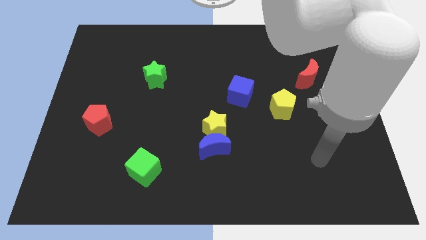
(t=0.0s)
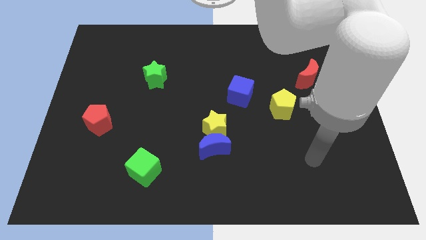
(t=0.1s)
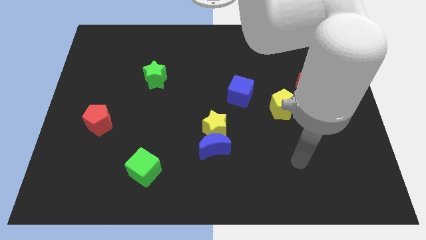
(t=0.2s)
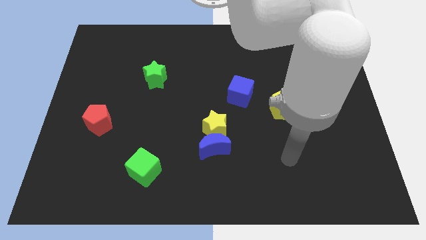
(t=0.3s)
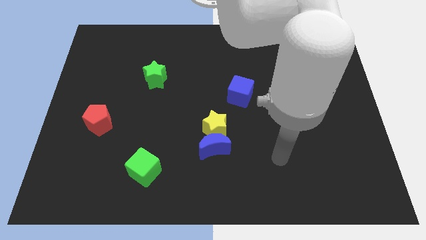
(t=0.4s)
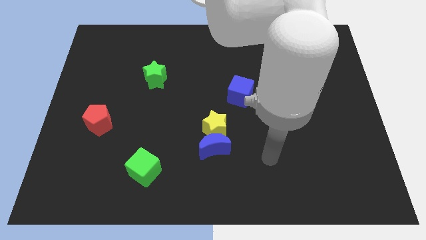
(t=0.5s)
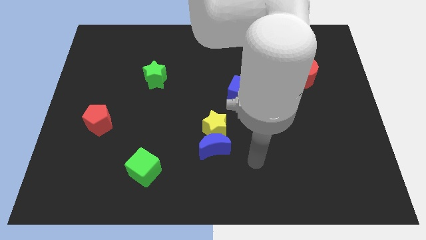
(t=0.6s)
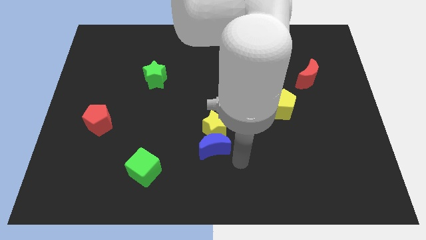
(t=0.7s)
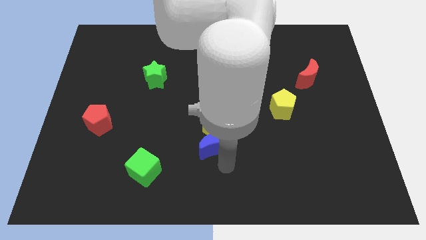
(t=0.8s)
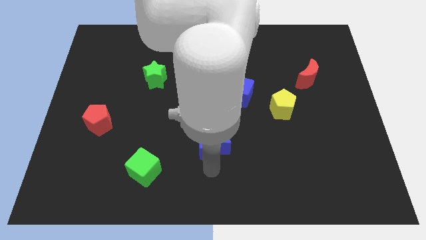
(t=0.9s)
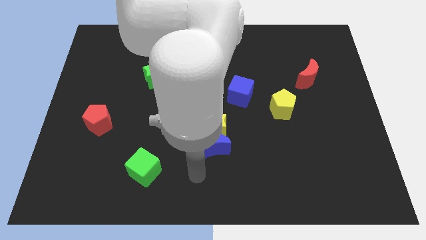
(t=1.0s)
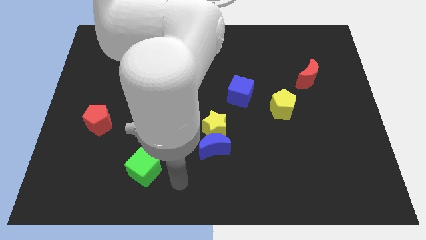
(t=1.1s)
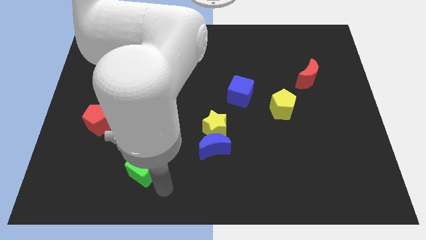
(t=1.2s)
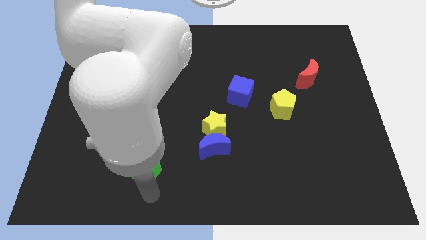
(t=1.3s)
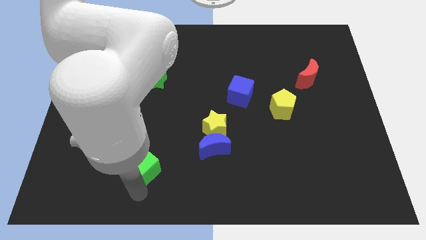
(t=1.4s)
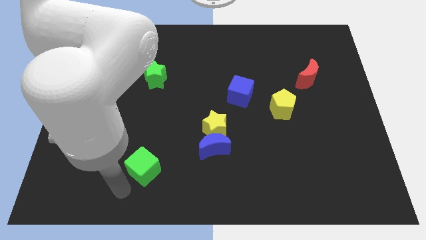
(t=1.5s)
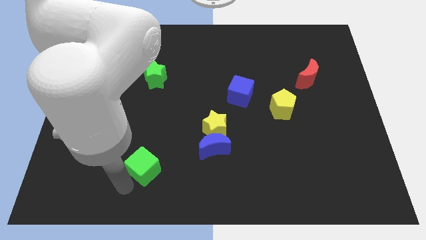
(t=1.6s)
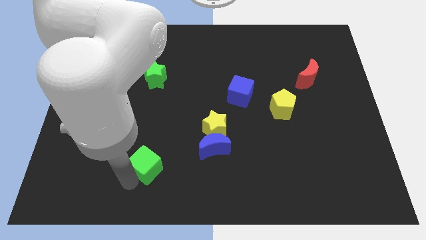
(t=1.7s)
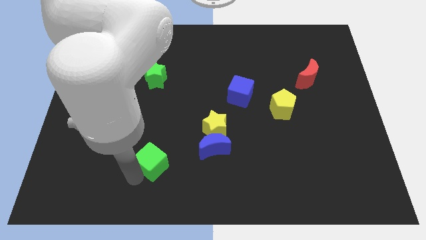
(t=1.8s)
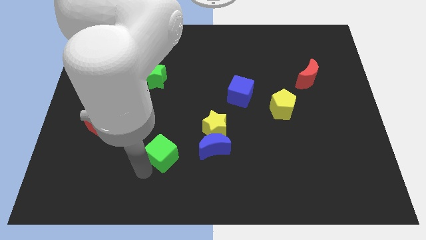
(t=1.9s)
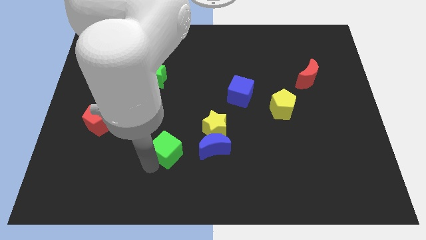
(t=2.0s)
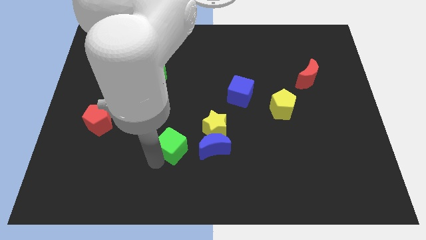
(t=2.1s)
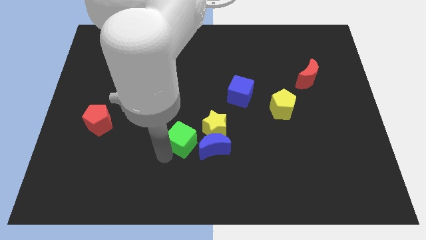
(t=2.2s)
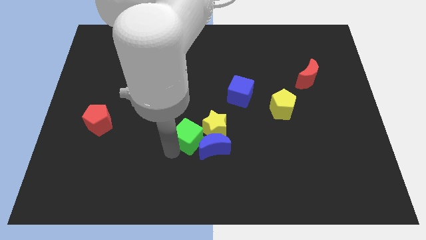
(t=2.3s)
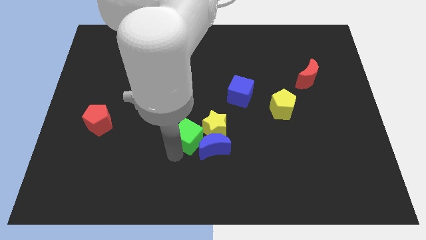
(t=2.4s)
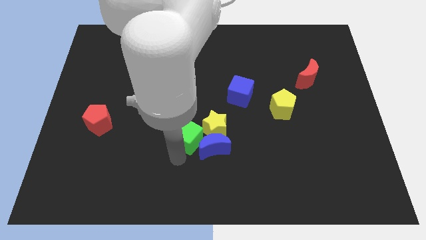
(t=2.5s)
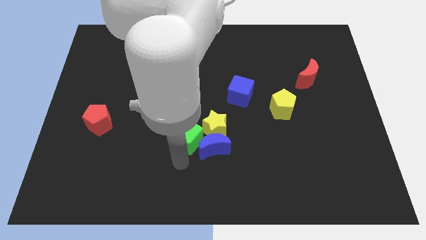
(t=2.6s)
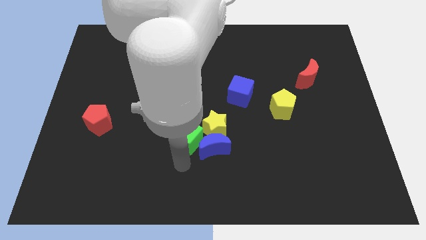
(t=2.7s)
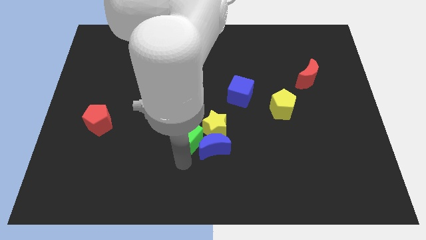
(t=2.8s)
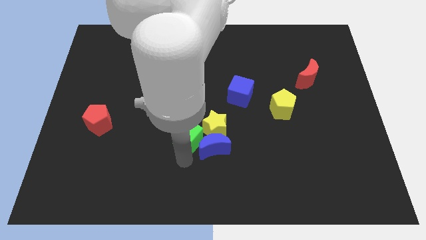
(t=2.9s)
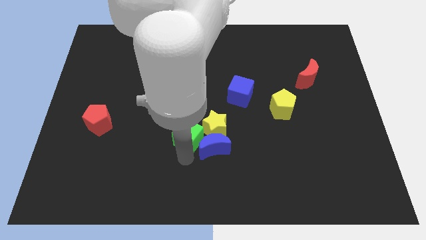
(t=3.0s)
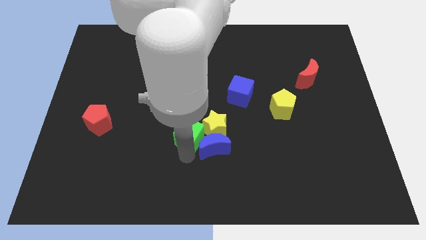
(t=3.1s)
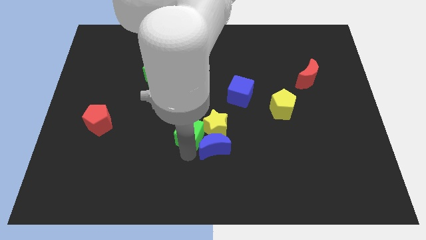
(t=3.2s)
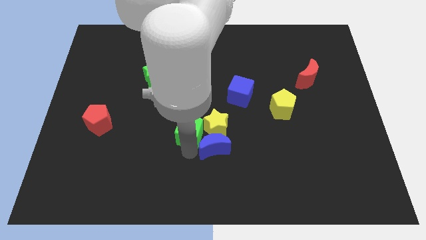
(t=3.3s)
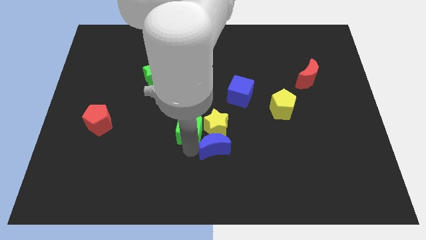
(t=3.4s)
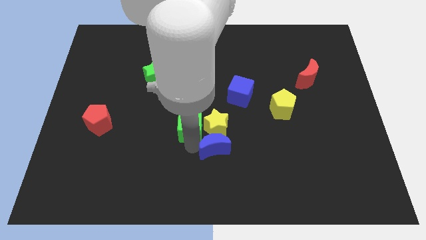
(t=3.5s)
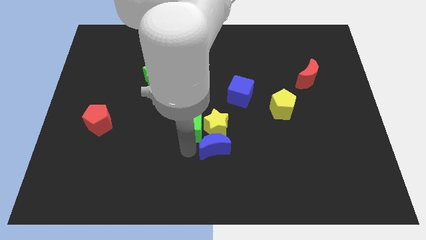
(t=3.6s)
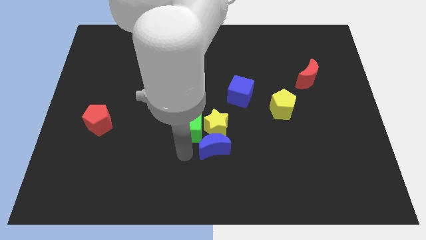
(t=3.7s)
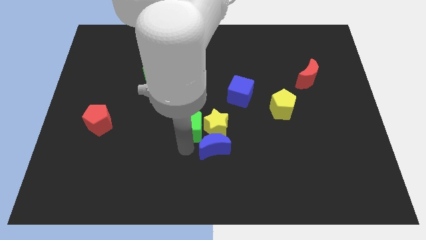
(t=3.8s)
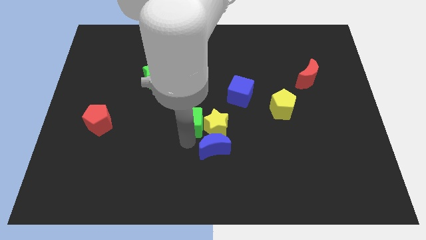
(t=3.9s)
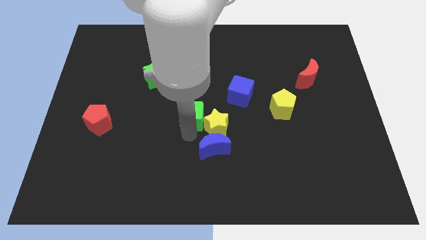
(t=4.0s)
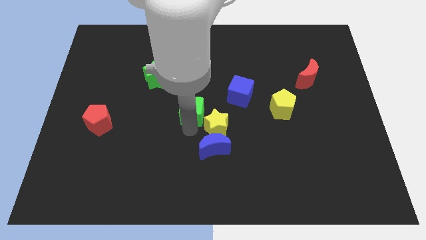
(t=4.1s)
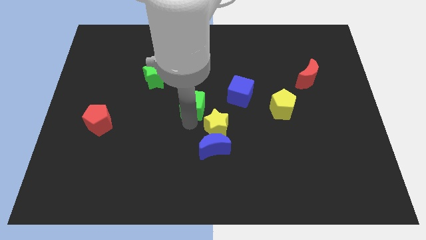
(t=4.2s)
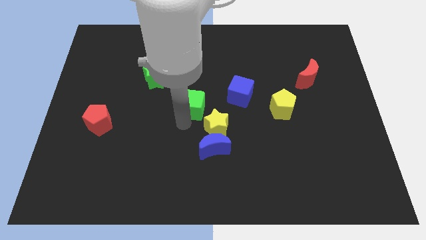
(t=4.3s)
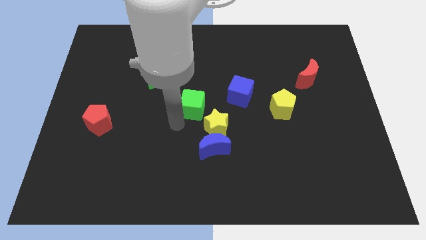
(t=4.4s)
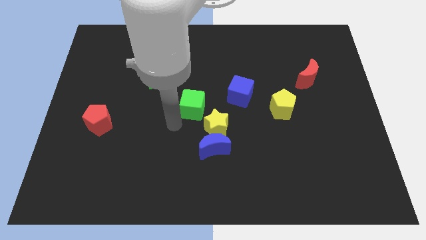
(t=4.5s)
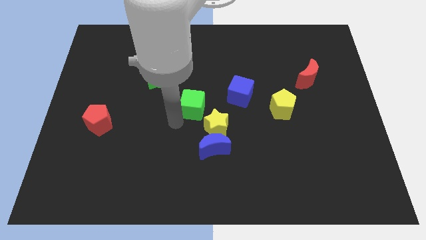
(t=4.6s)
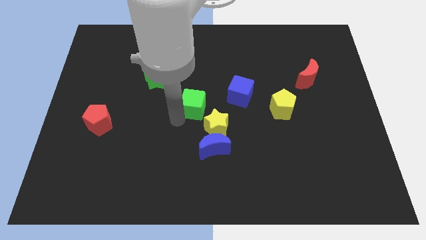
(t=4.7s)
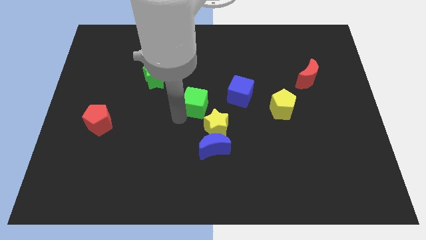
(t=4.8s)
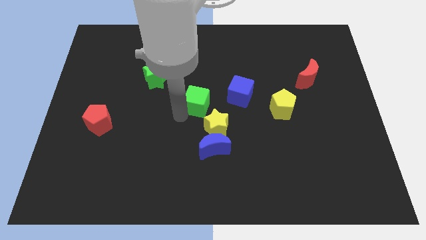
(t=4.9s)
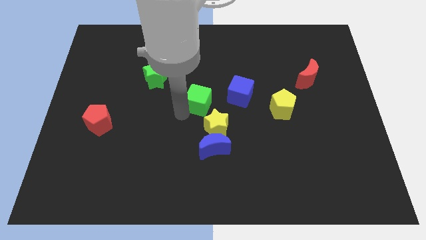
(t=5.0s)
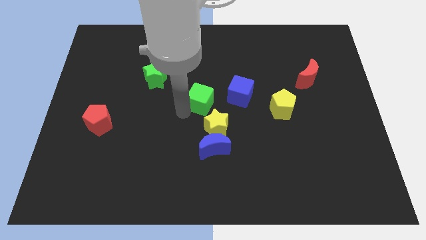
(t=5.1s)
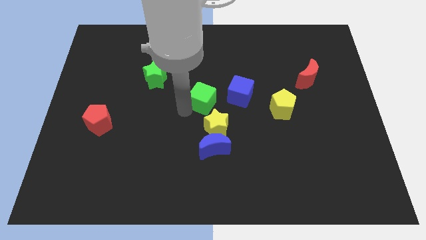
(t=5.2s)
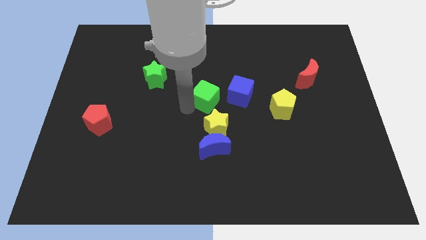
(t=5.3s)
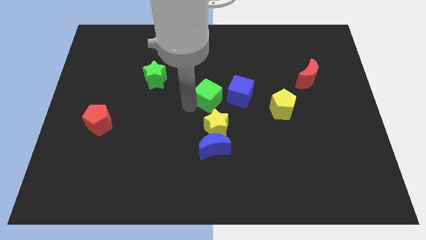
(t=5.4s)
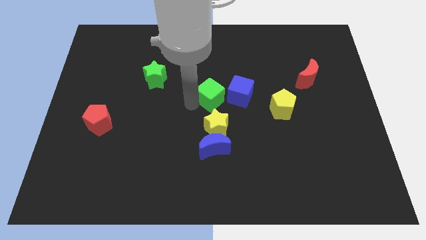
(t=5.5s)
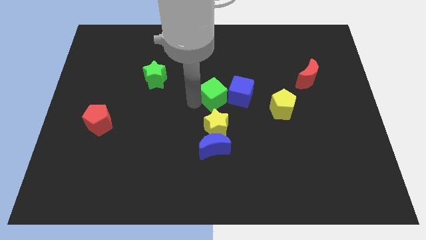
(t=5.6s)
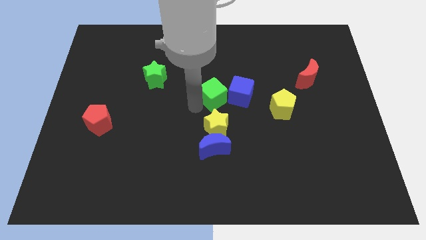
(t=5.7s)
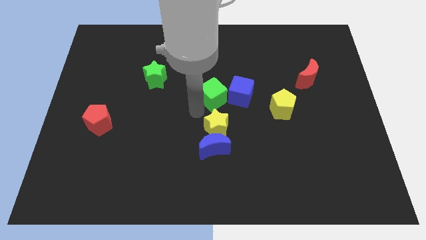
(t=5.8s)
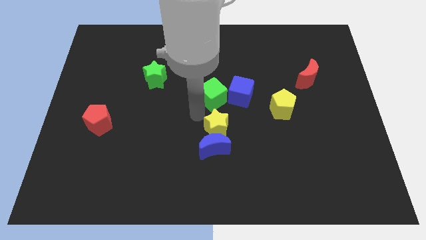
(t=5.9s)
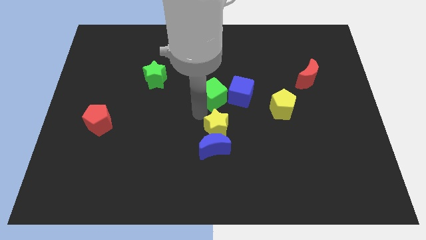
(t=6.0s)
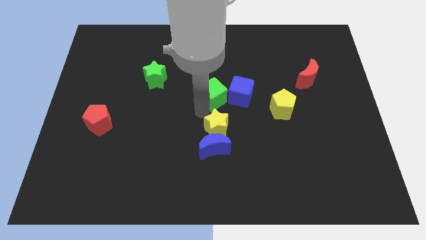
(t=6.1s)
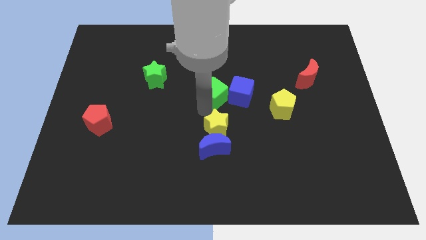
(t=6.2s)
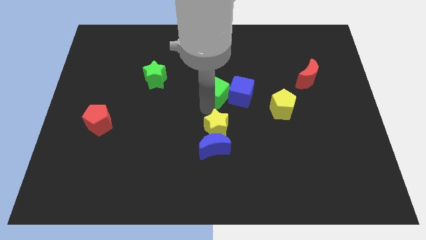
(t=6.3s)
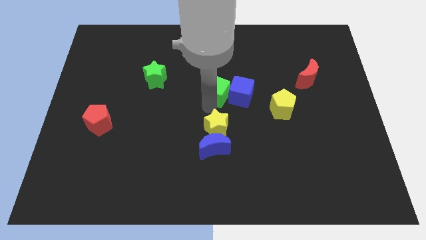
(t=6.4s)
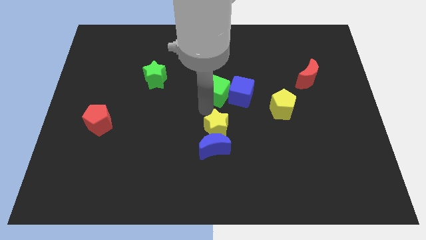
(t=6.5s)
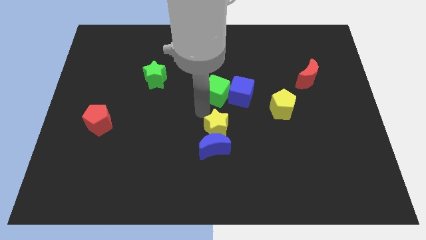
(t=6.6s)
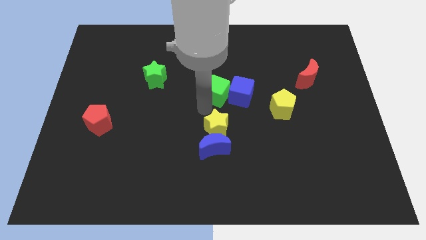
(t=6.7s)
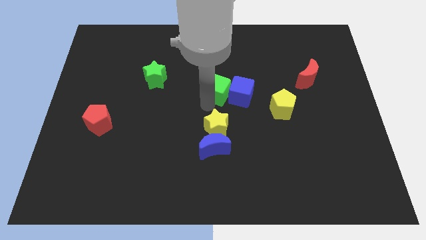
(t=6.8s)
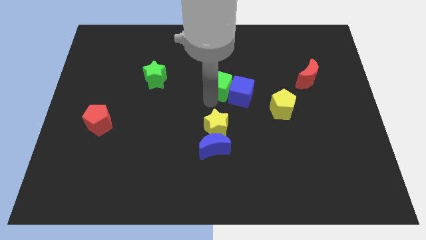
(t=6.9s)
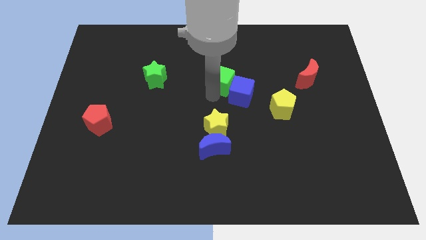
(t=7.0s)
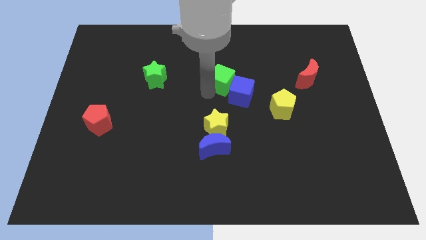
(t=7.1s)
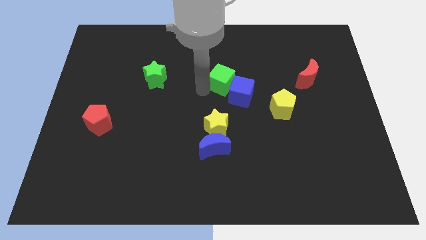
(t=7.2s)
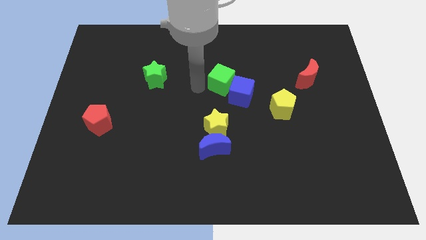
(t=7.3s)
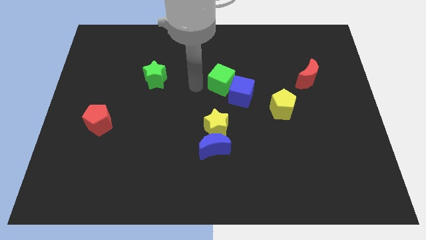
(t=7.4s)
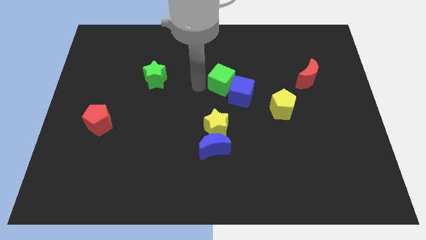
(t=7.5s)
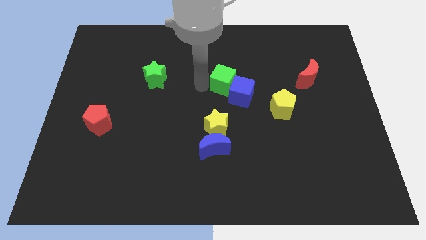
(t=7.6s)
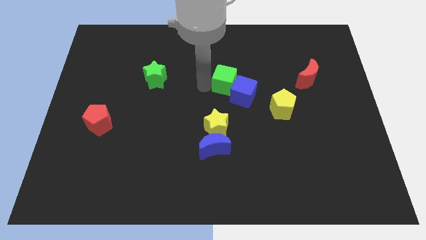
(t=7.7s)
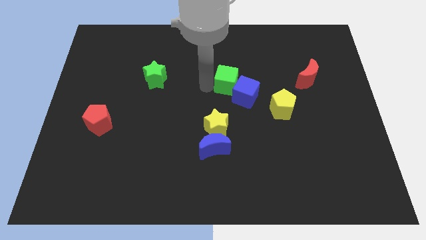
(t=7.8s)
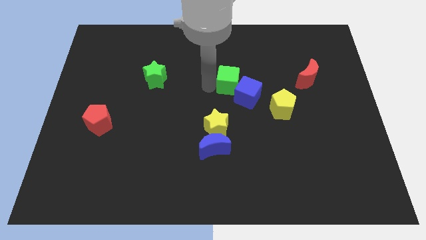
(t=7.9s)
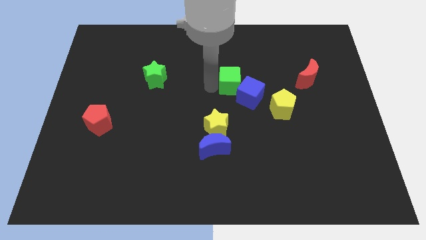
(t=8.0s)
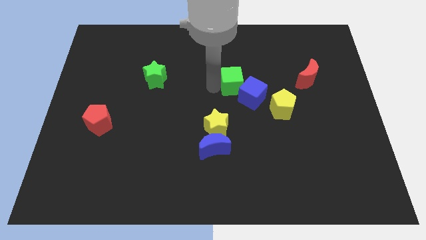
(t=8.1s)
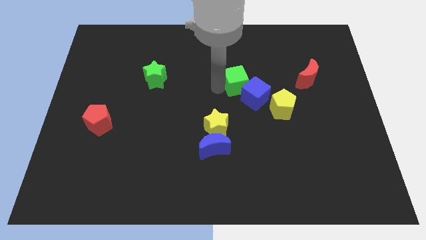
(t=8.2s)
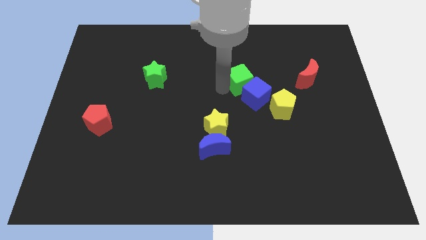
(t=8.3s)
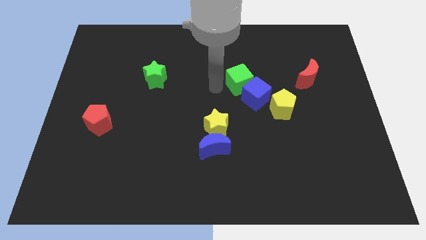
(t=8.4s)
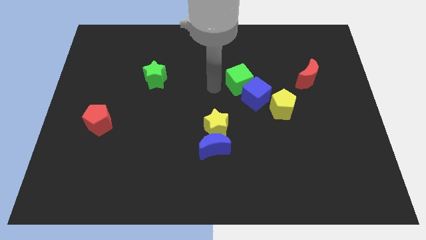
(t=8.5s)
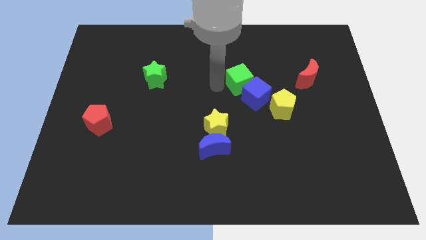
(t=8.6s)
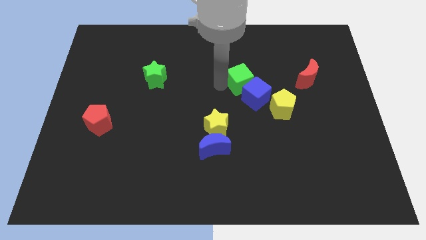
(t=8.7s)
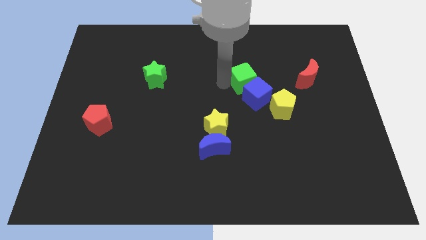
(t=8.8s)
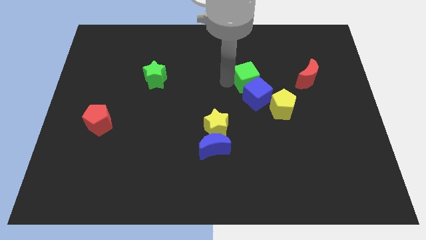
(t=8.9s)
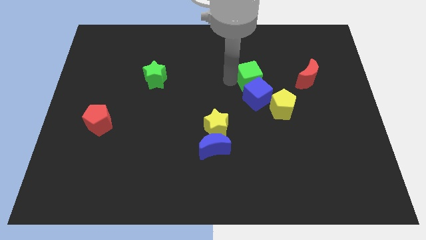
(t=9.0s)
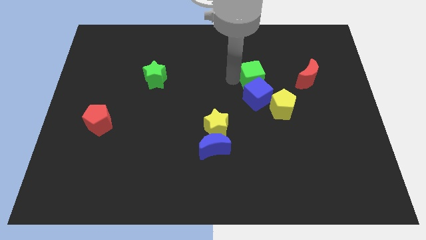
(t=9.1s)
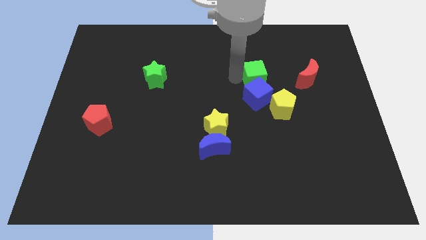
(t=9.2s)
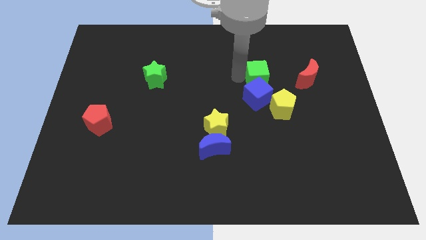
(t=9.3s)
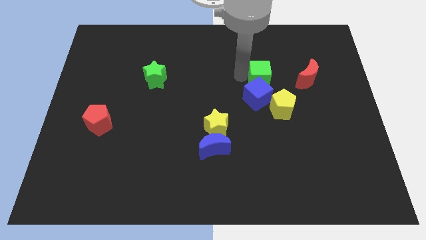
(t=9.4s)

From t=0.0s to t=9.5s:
slide the green cube to the top of the yellow pentagon
